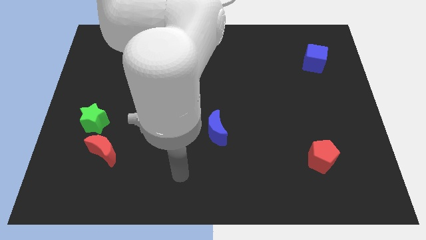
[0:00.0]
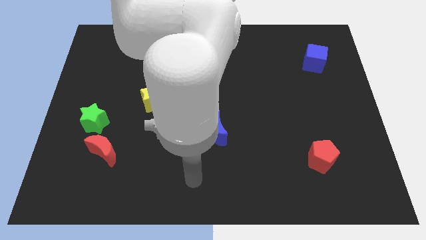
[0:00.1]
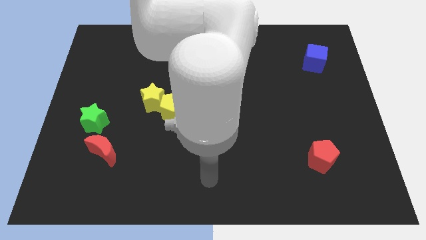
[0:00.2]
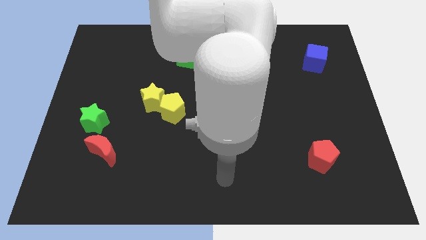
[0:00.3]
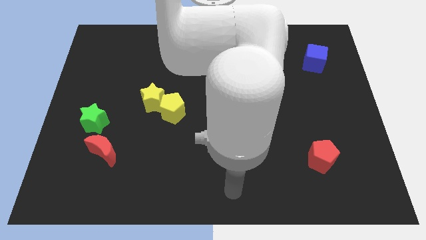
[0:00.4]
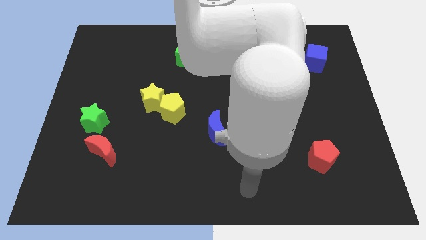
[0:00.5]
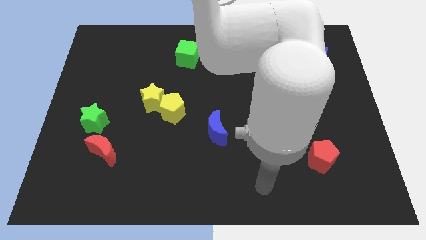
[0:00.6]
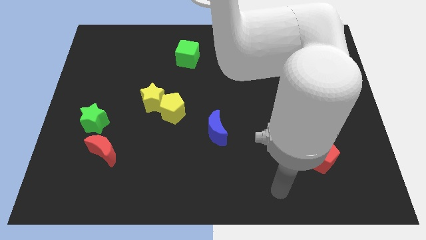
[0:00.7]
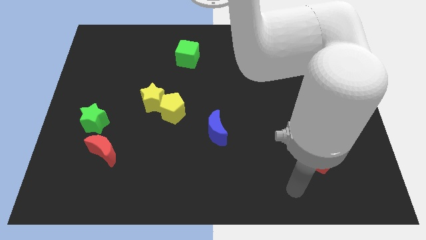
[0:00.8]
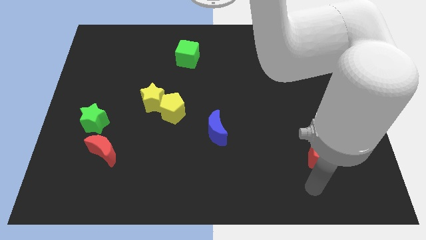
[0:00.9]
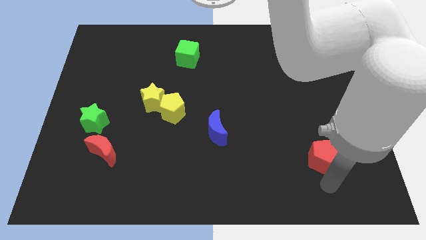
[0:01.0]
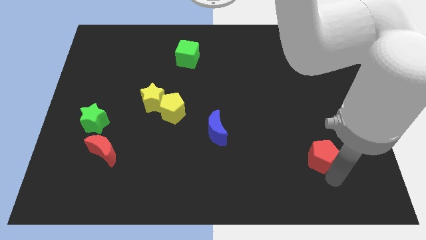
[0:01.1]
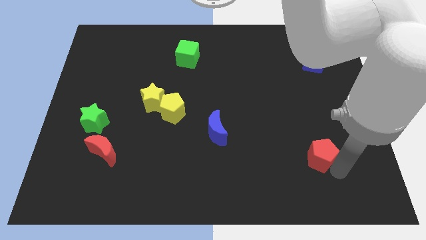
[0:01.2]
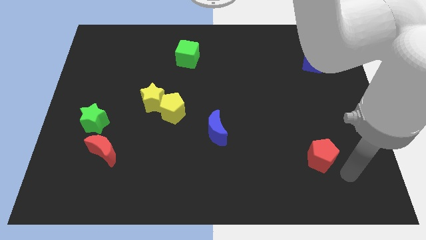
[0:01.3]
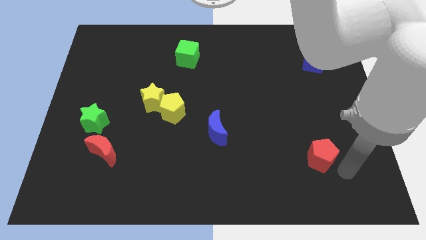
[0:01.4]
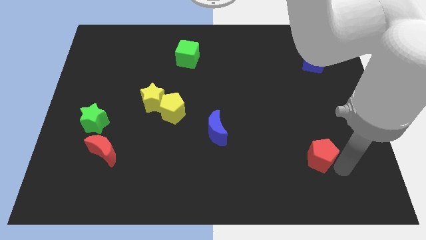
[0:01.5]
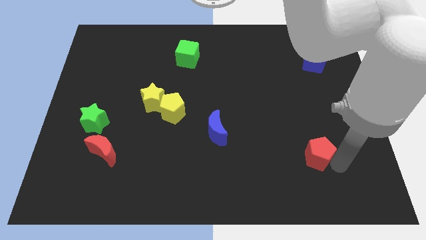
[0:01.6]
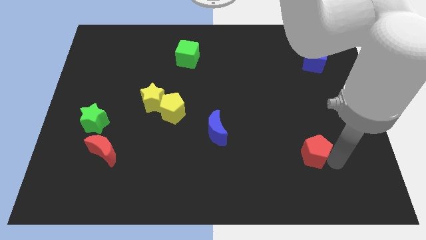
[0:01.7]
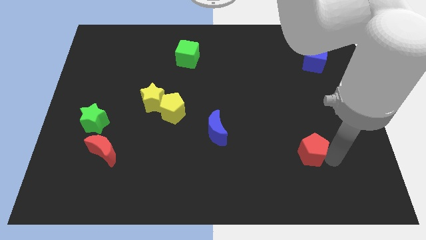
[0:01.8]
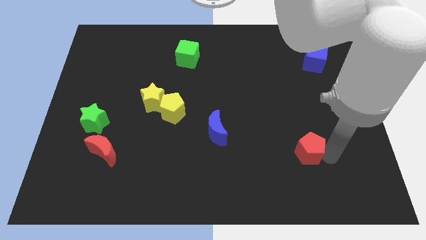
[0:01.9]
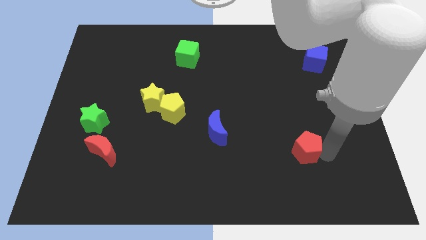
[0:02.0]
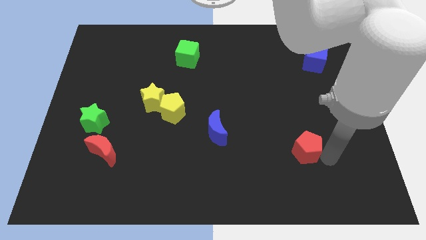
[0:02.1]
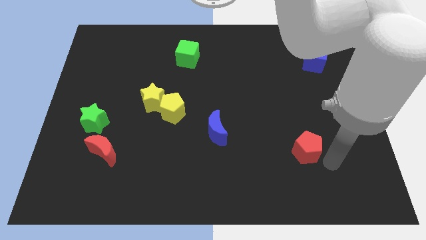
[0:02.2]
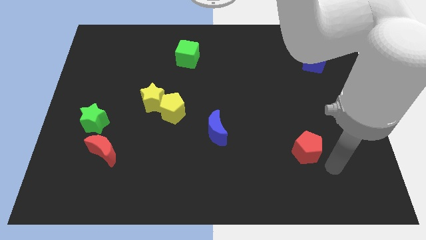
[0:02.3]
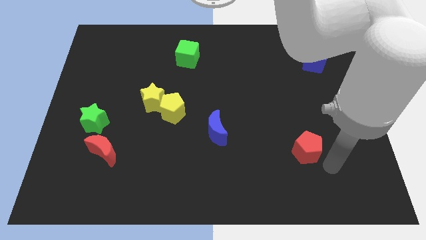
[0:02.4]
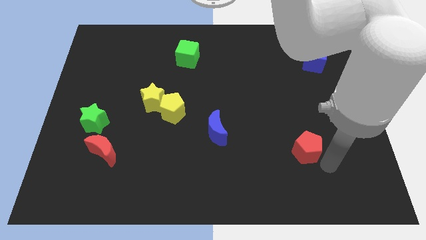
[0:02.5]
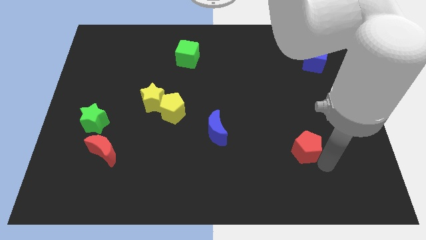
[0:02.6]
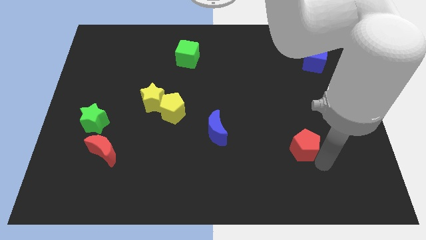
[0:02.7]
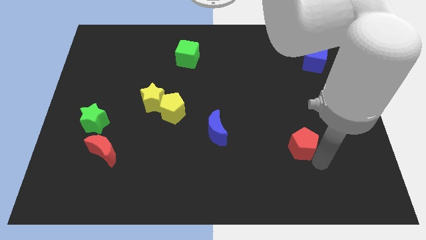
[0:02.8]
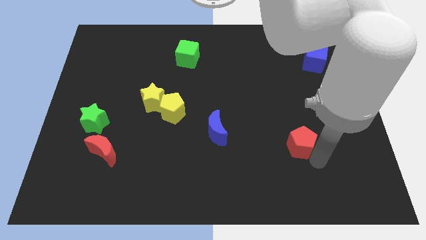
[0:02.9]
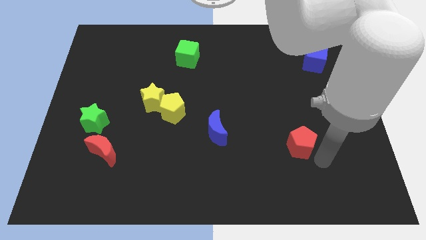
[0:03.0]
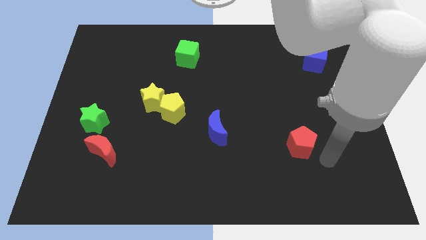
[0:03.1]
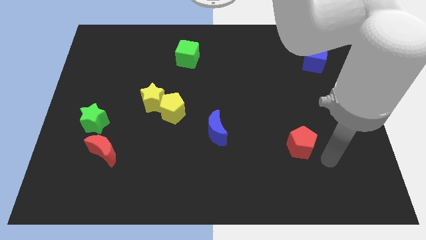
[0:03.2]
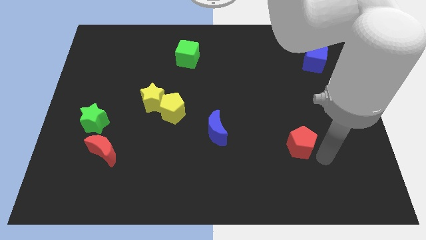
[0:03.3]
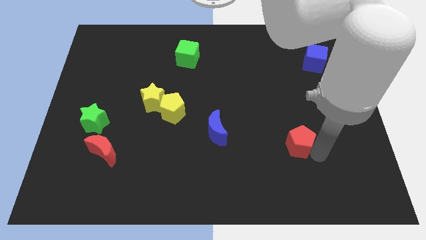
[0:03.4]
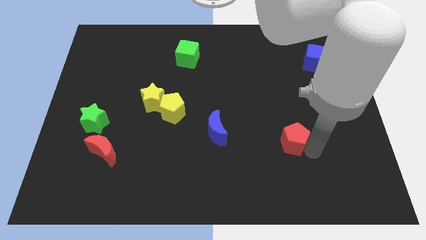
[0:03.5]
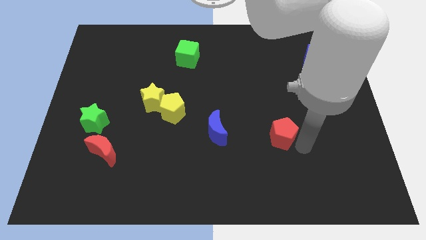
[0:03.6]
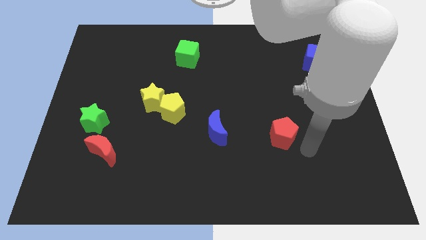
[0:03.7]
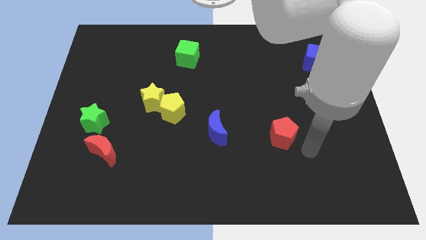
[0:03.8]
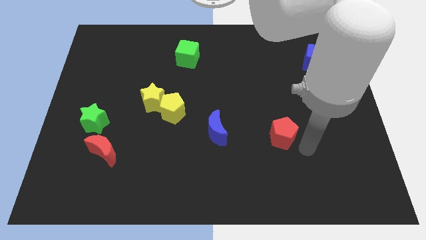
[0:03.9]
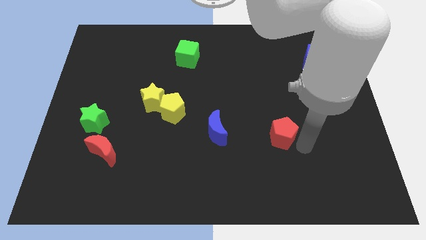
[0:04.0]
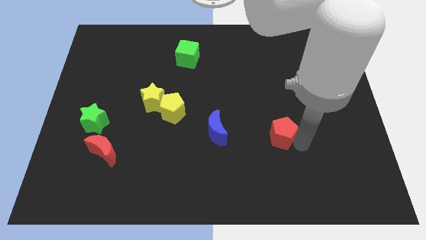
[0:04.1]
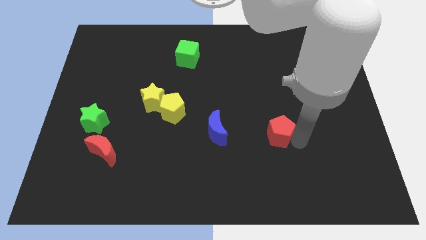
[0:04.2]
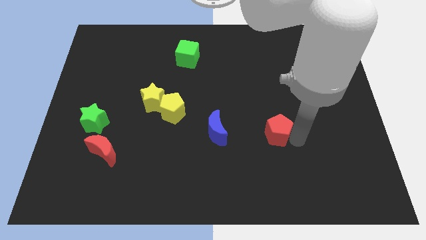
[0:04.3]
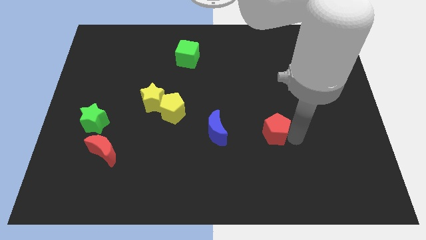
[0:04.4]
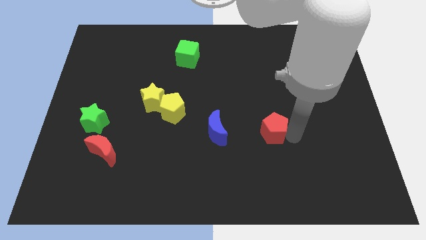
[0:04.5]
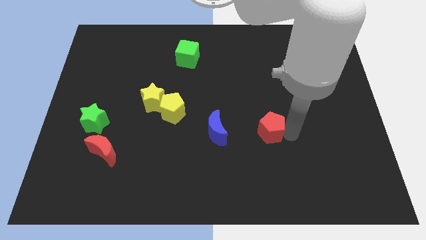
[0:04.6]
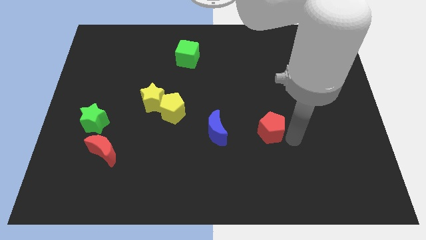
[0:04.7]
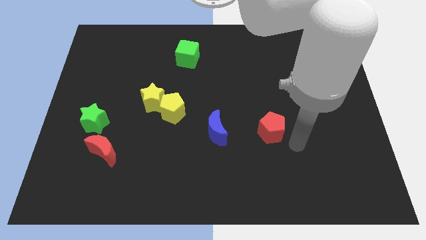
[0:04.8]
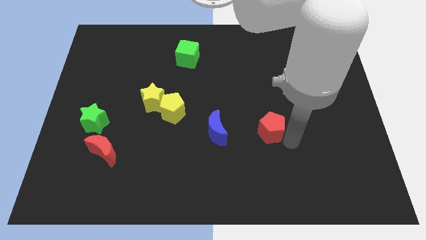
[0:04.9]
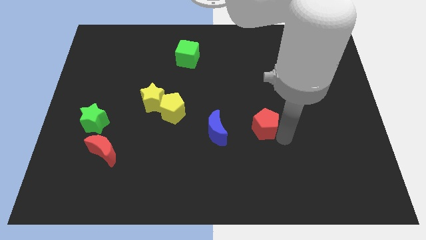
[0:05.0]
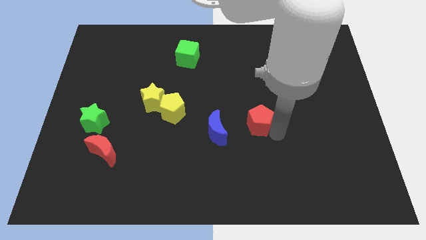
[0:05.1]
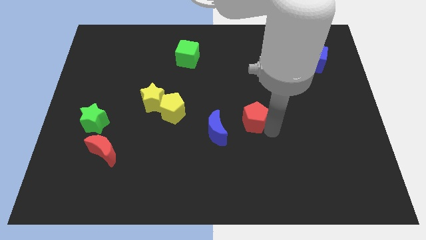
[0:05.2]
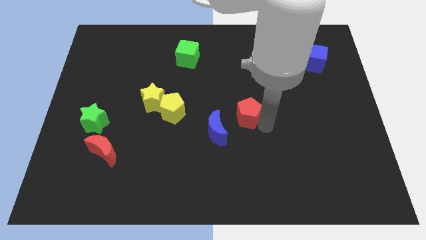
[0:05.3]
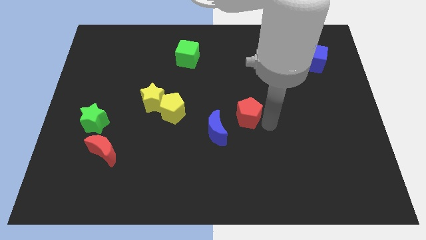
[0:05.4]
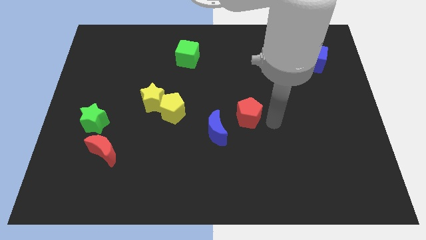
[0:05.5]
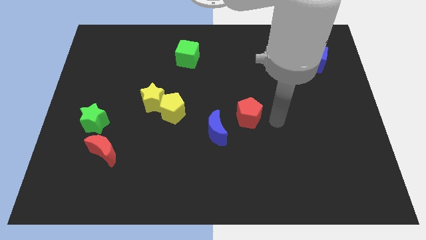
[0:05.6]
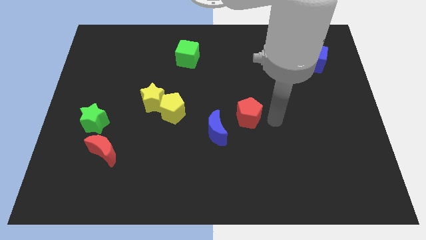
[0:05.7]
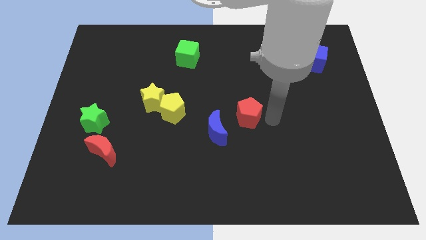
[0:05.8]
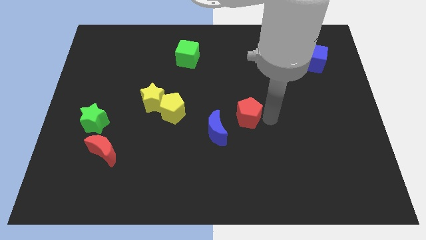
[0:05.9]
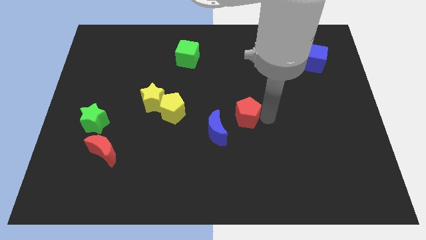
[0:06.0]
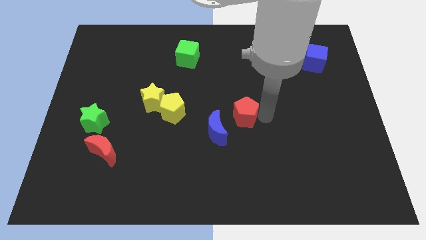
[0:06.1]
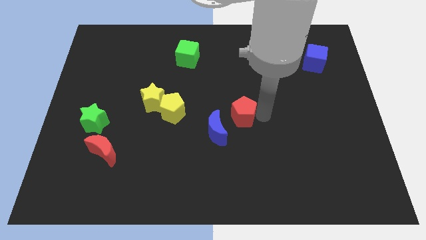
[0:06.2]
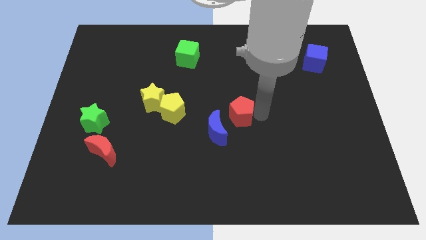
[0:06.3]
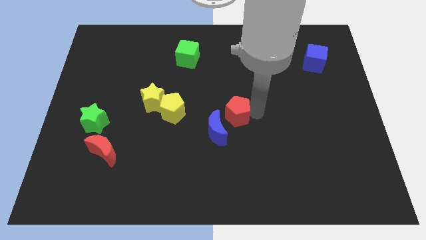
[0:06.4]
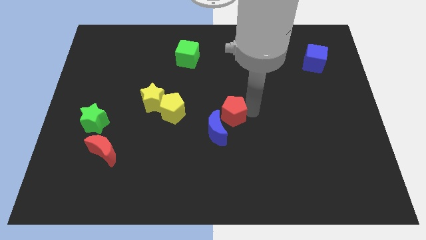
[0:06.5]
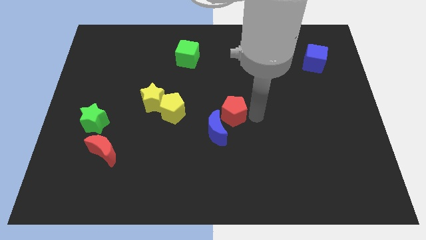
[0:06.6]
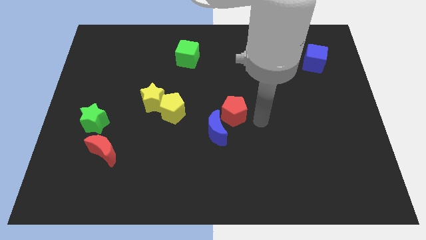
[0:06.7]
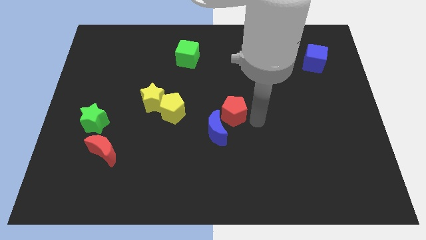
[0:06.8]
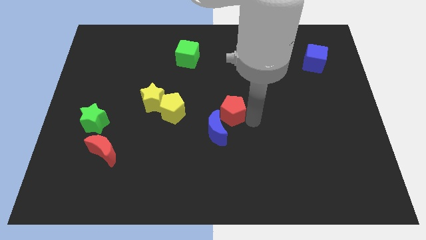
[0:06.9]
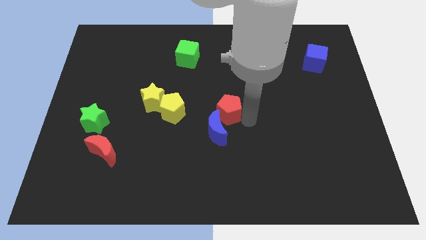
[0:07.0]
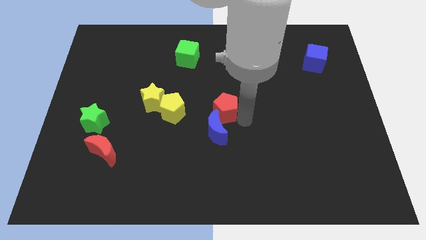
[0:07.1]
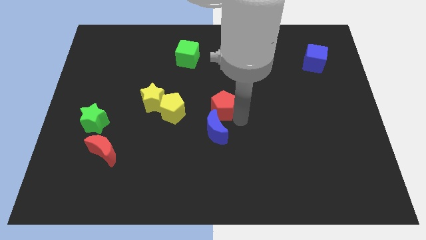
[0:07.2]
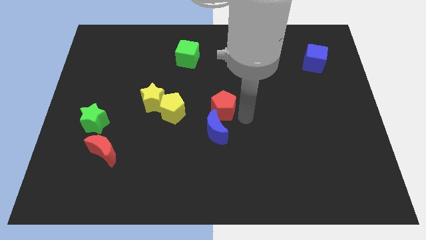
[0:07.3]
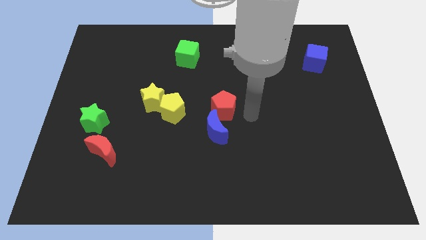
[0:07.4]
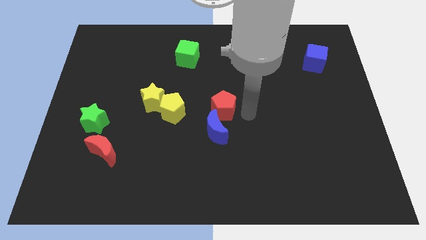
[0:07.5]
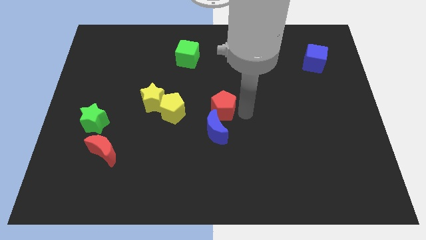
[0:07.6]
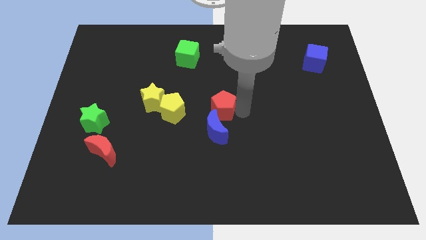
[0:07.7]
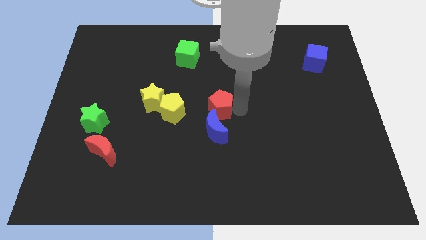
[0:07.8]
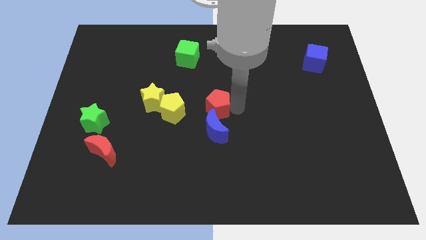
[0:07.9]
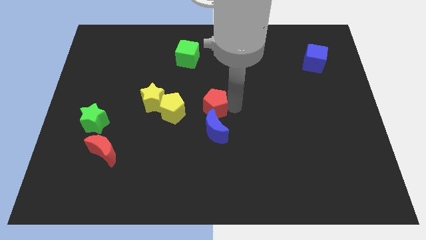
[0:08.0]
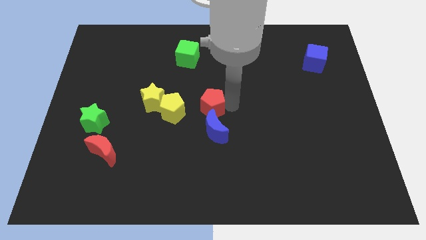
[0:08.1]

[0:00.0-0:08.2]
move the red pentagon to the top left of the blue moon
